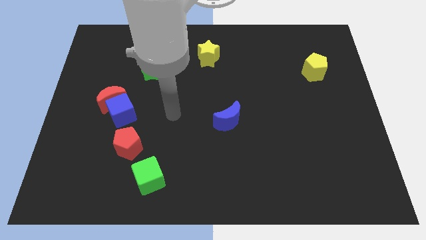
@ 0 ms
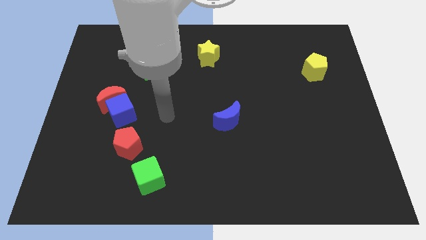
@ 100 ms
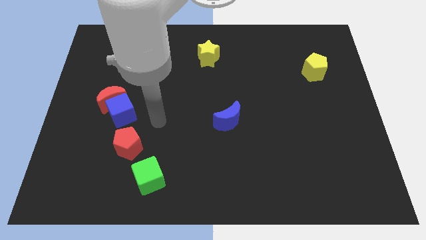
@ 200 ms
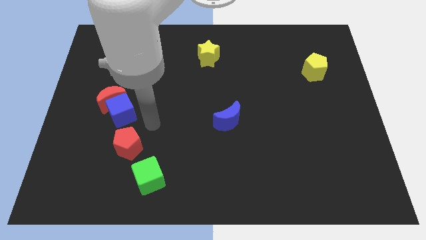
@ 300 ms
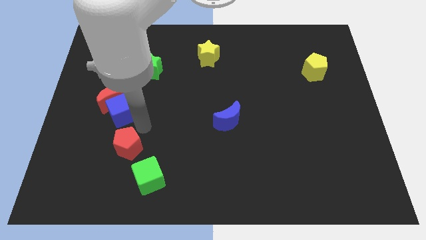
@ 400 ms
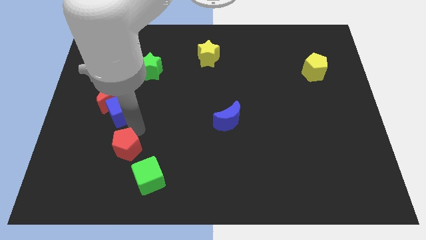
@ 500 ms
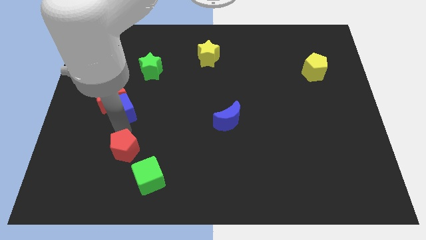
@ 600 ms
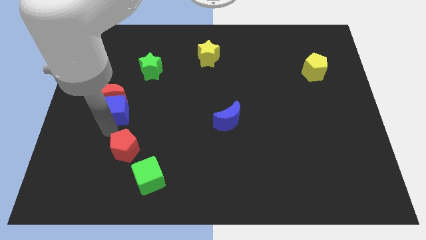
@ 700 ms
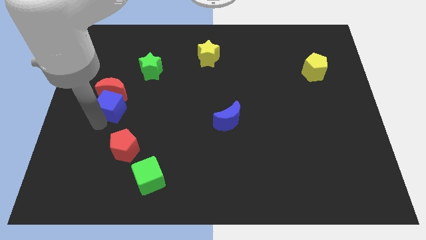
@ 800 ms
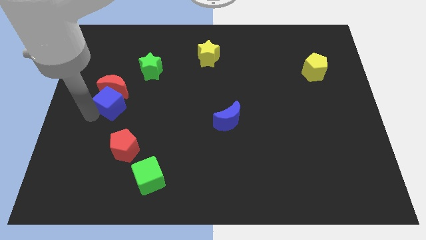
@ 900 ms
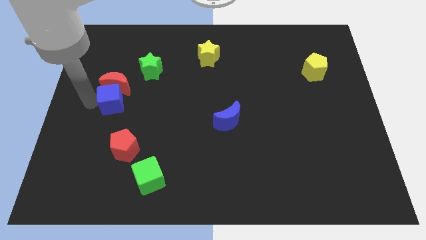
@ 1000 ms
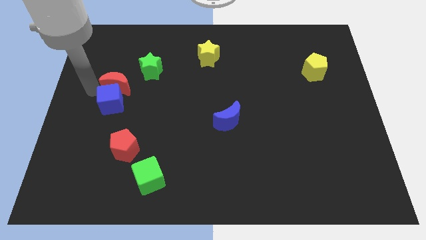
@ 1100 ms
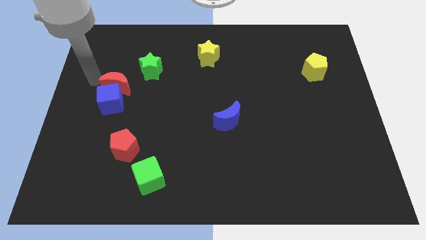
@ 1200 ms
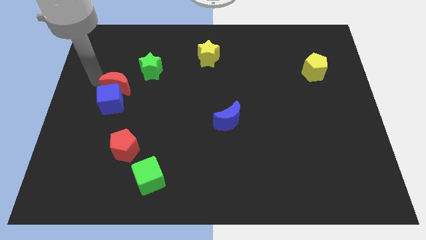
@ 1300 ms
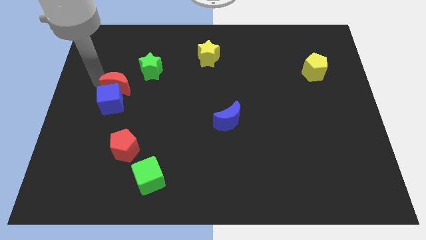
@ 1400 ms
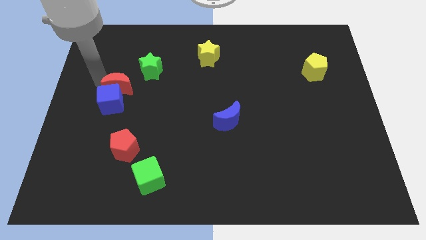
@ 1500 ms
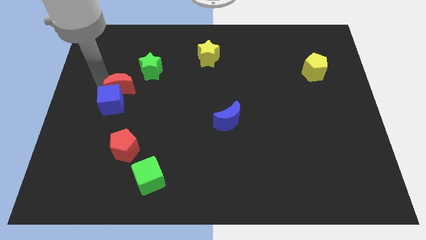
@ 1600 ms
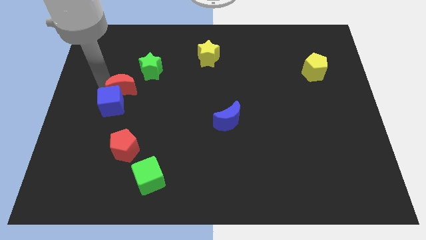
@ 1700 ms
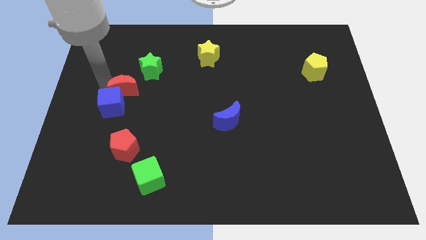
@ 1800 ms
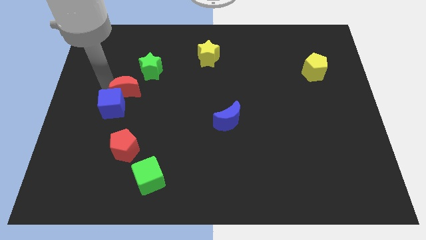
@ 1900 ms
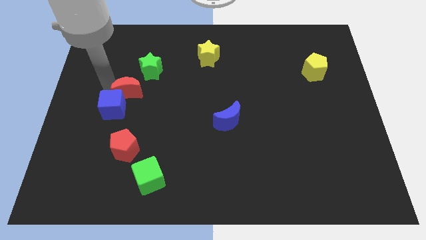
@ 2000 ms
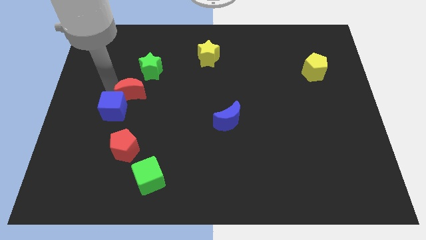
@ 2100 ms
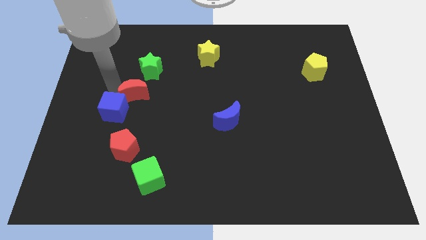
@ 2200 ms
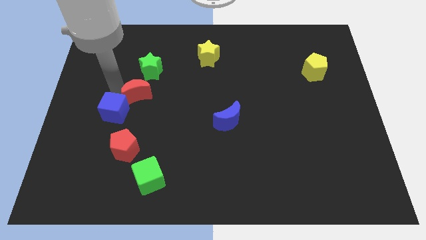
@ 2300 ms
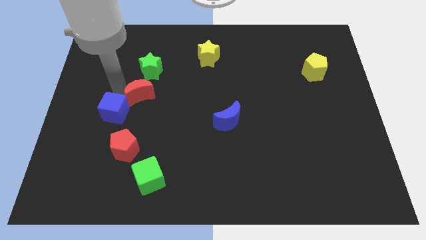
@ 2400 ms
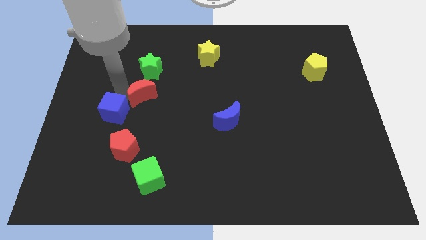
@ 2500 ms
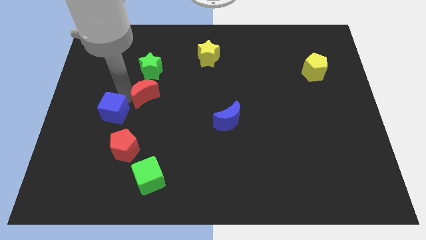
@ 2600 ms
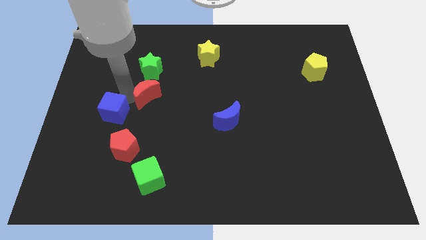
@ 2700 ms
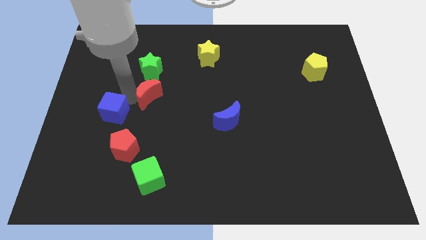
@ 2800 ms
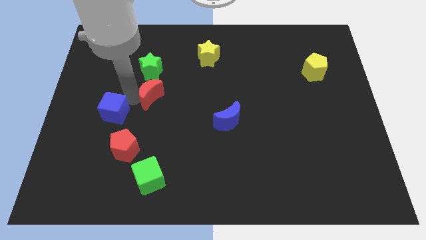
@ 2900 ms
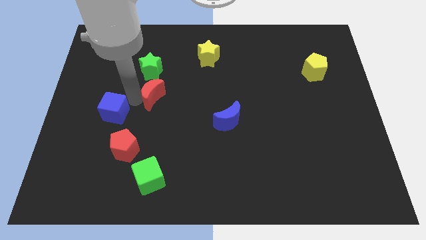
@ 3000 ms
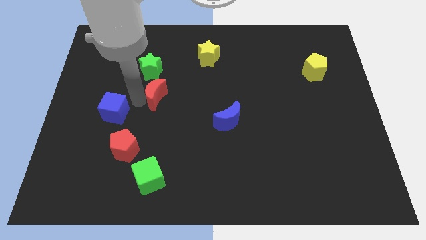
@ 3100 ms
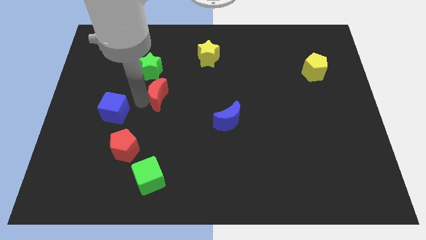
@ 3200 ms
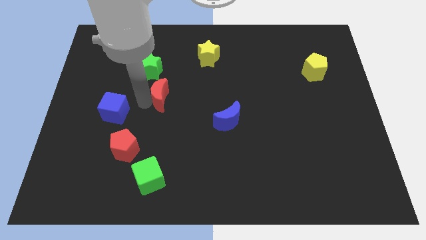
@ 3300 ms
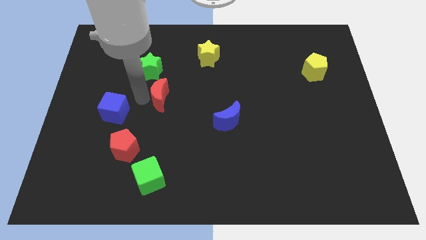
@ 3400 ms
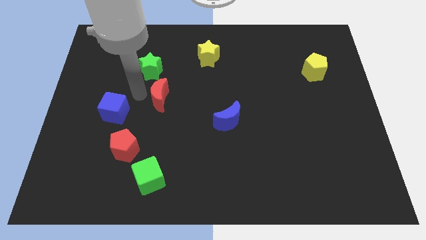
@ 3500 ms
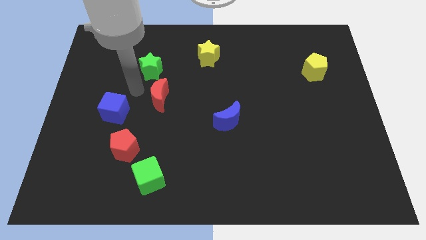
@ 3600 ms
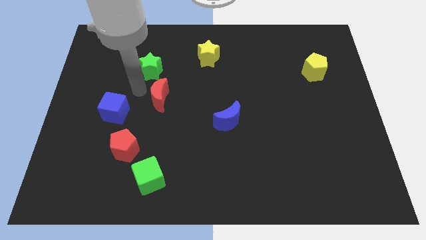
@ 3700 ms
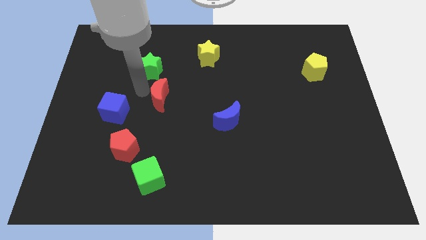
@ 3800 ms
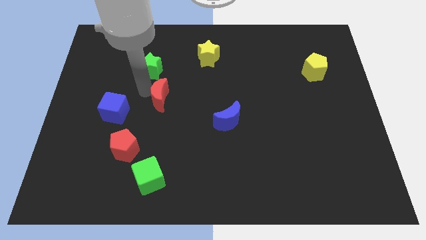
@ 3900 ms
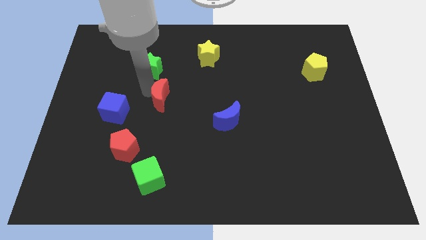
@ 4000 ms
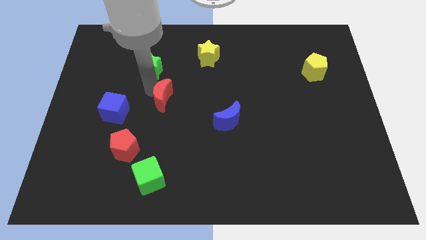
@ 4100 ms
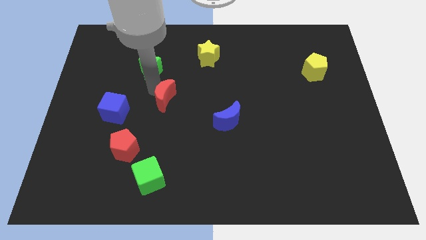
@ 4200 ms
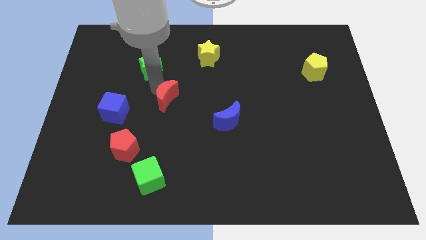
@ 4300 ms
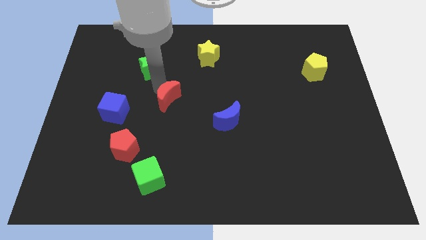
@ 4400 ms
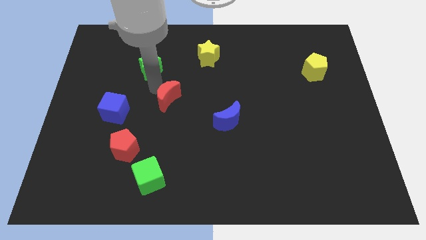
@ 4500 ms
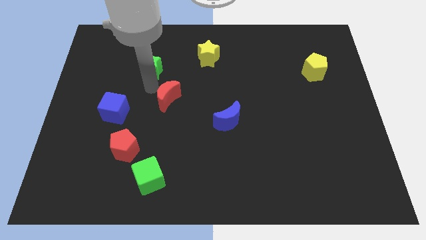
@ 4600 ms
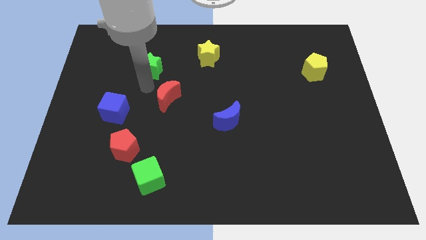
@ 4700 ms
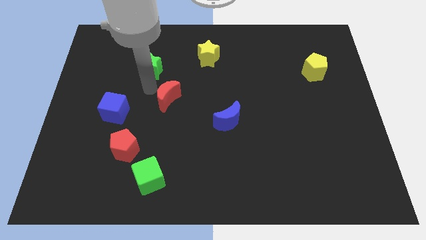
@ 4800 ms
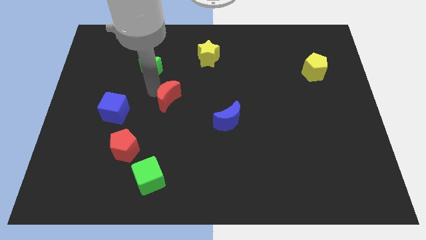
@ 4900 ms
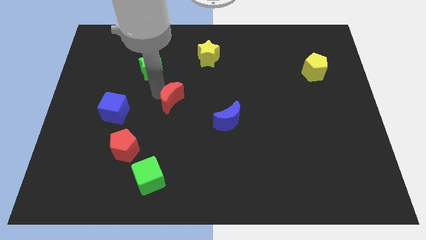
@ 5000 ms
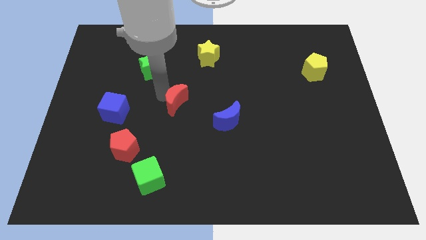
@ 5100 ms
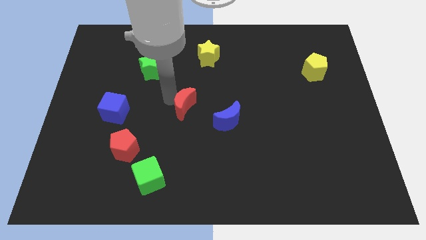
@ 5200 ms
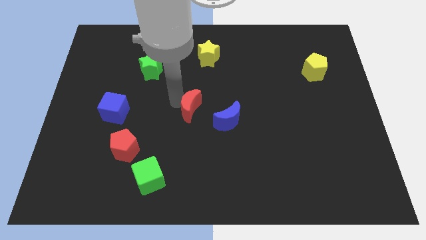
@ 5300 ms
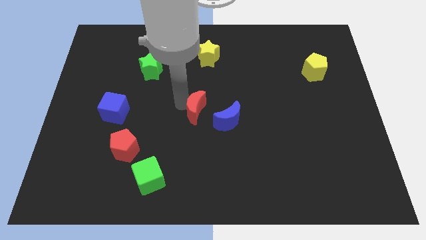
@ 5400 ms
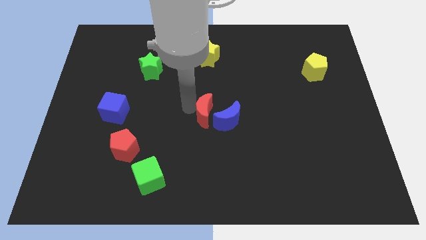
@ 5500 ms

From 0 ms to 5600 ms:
put the red moon to the blue moon

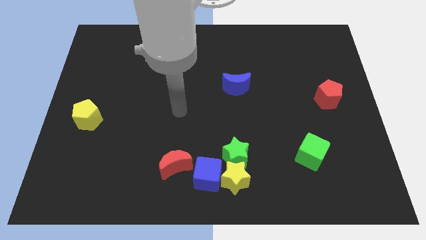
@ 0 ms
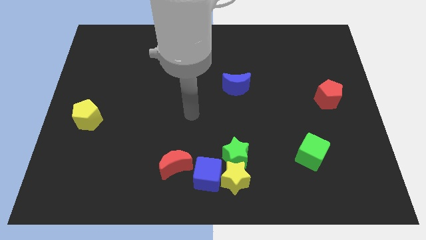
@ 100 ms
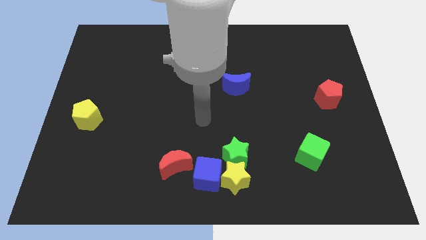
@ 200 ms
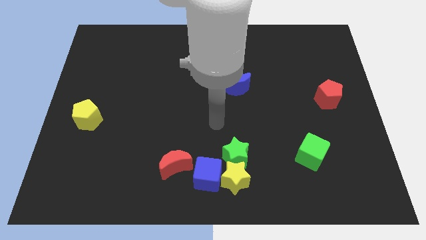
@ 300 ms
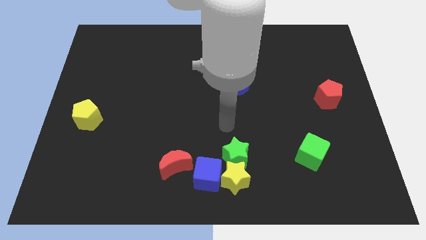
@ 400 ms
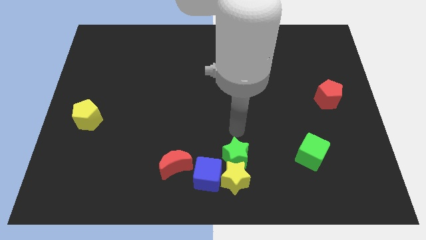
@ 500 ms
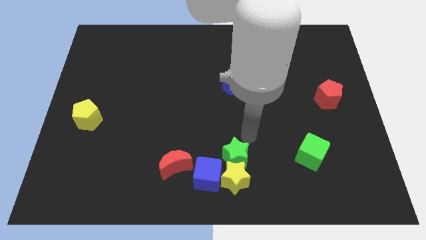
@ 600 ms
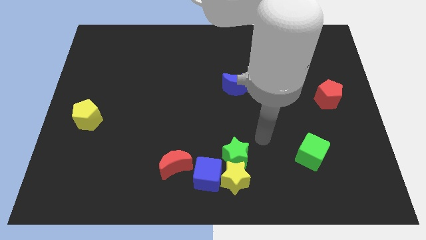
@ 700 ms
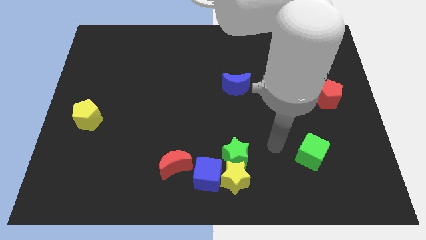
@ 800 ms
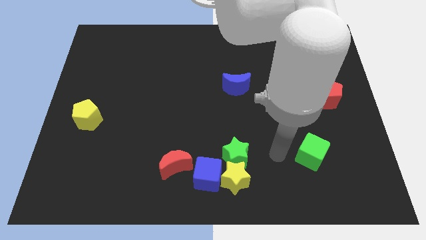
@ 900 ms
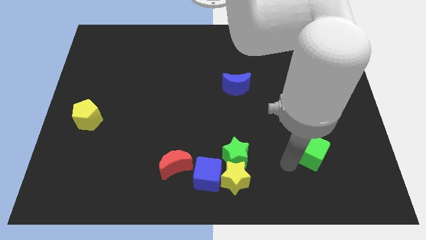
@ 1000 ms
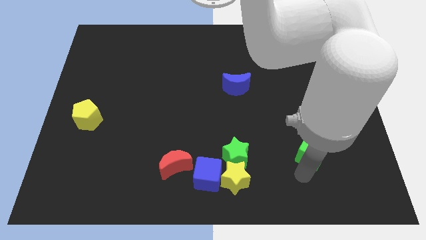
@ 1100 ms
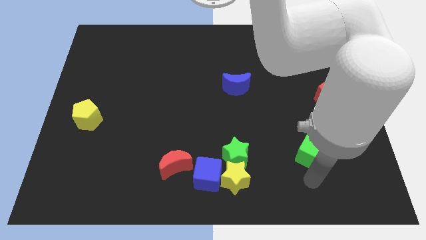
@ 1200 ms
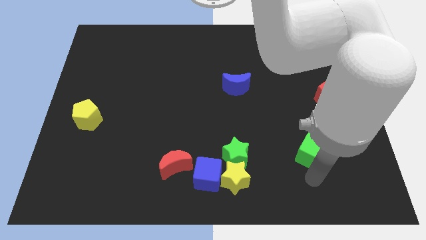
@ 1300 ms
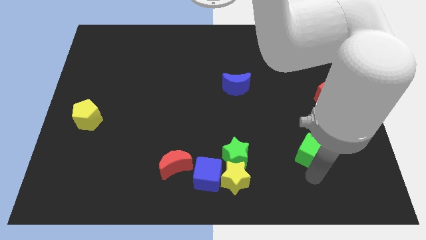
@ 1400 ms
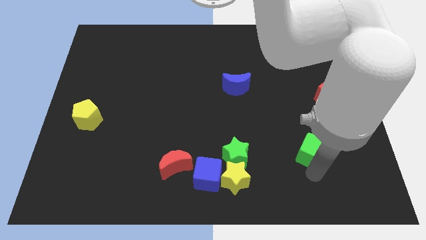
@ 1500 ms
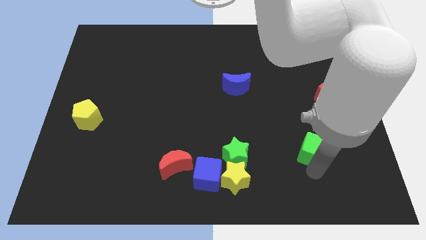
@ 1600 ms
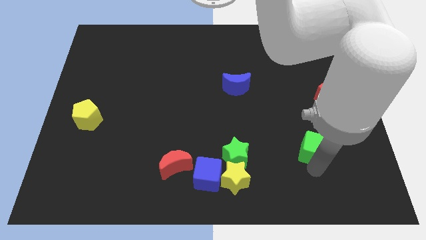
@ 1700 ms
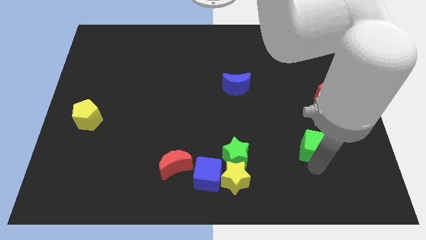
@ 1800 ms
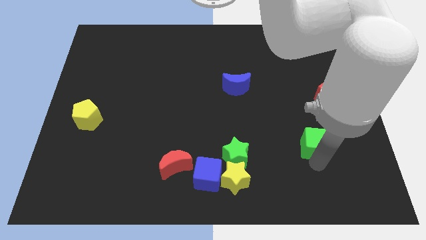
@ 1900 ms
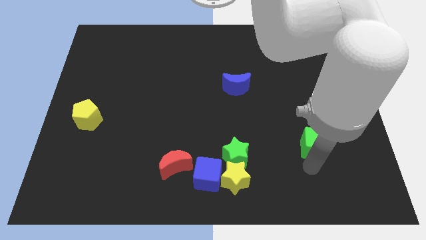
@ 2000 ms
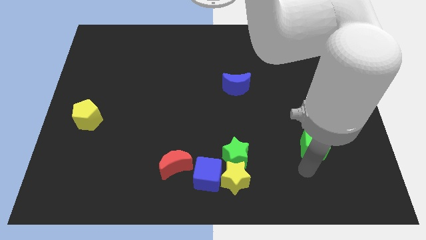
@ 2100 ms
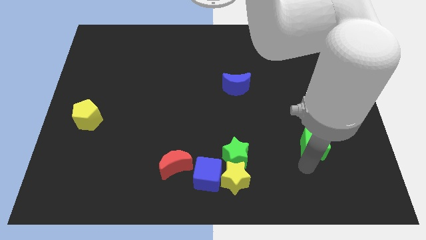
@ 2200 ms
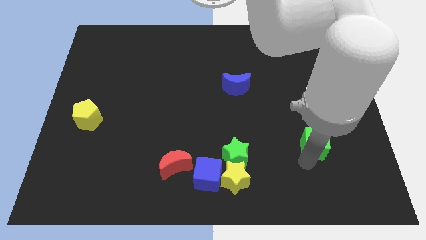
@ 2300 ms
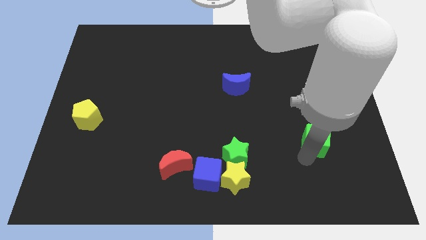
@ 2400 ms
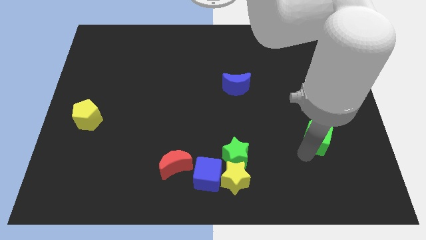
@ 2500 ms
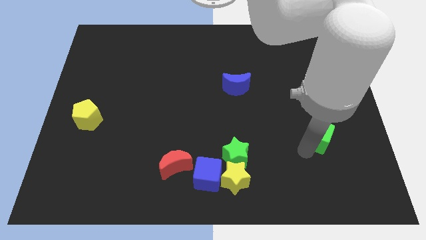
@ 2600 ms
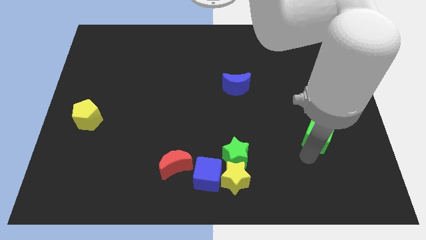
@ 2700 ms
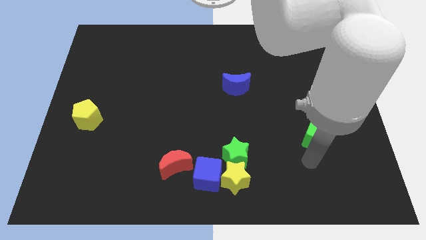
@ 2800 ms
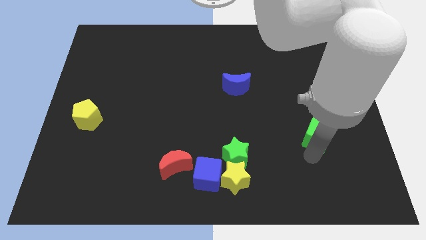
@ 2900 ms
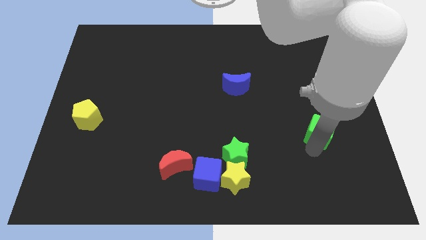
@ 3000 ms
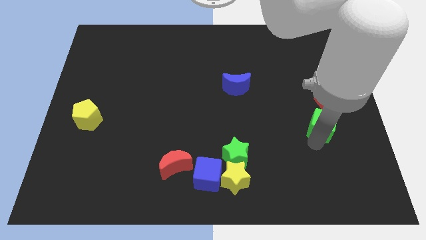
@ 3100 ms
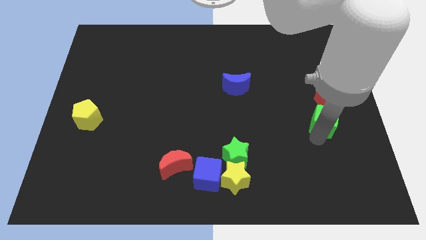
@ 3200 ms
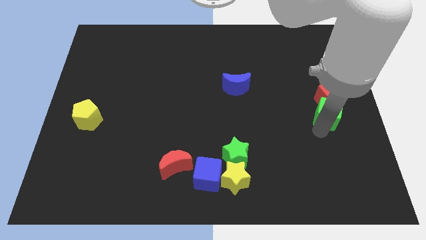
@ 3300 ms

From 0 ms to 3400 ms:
slide the green cube to the red pentagon
